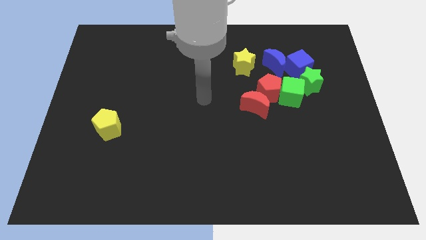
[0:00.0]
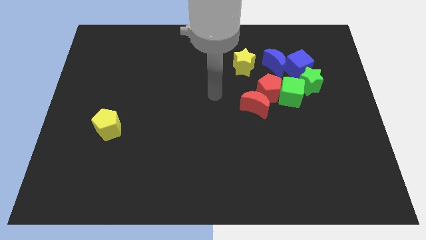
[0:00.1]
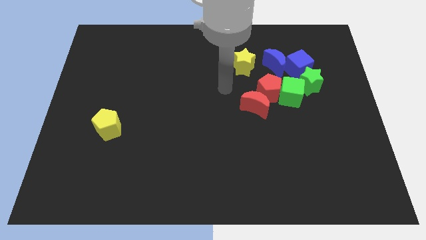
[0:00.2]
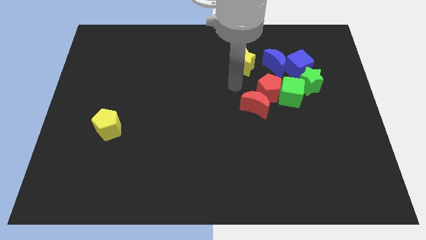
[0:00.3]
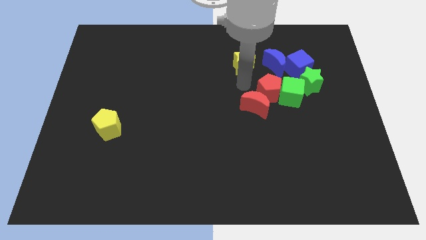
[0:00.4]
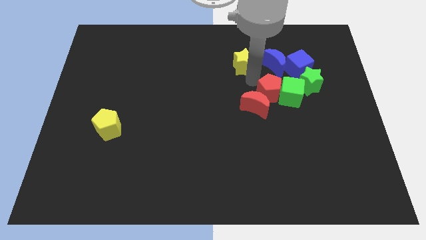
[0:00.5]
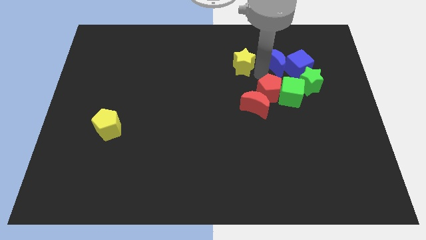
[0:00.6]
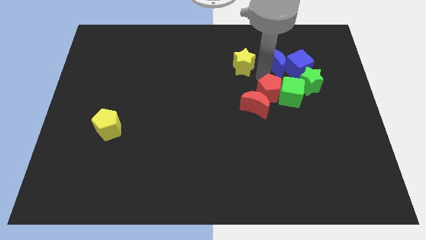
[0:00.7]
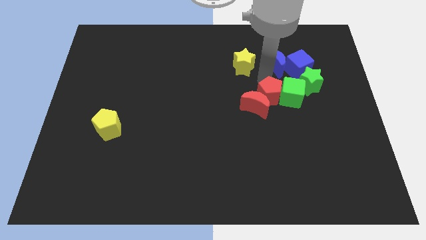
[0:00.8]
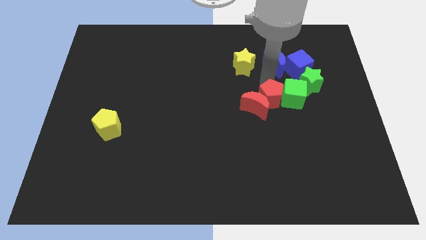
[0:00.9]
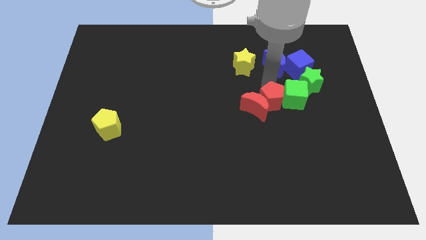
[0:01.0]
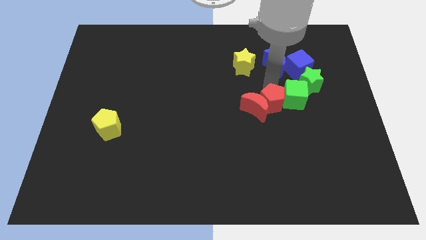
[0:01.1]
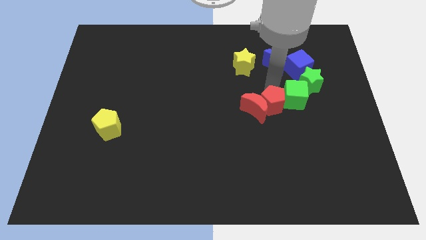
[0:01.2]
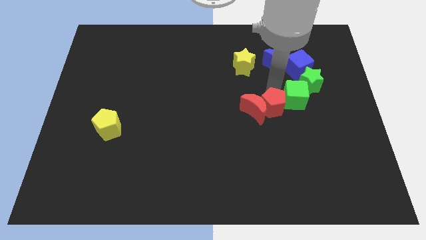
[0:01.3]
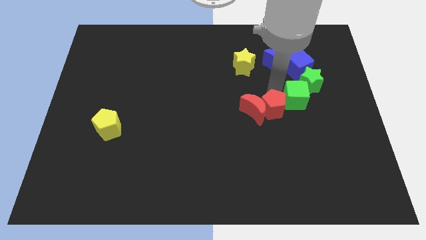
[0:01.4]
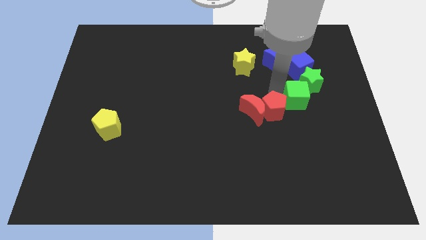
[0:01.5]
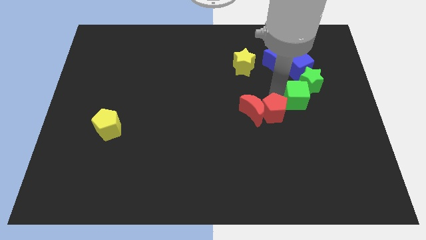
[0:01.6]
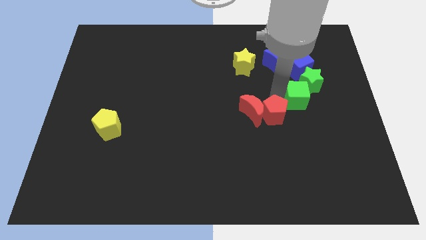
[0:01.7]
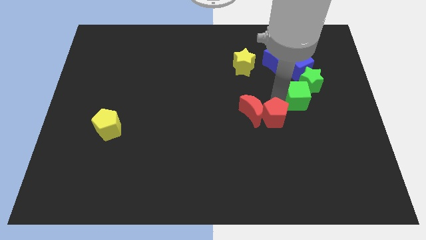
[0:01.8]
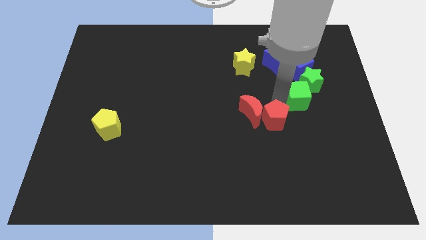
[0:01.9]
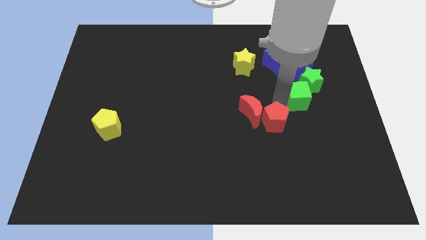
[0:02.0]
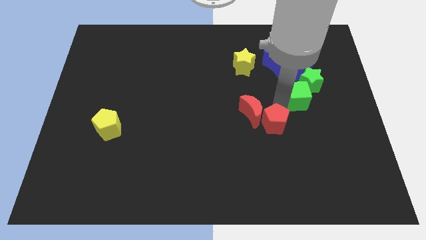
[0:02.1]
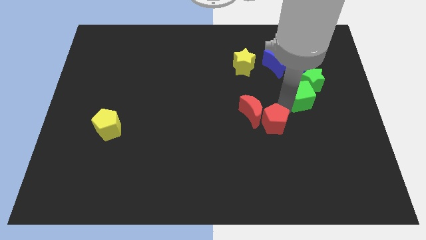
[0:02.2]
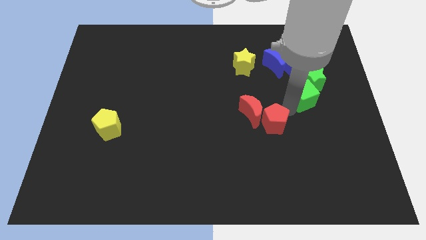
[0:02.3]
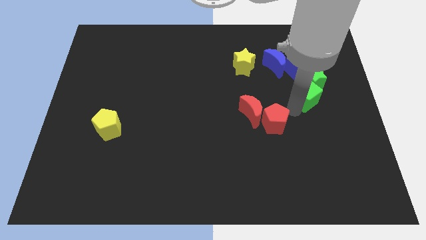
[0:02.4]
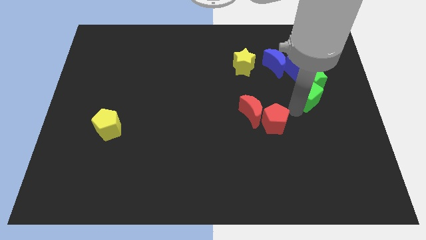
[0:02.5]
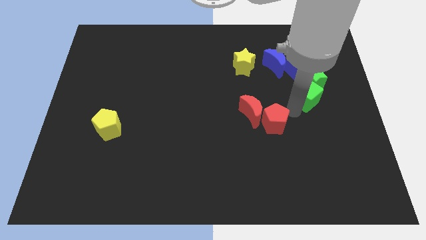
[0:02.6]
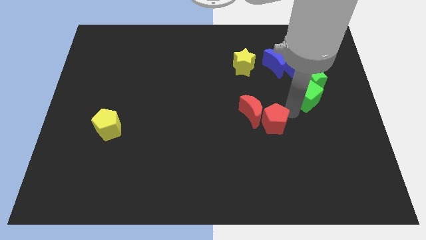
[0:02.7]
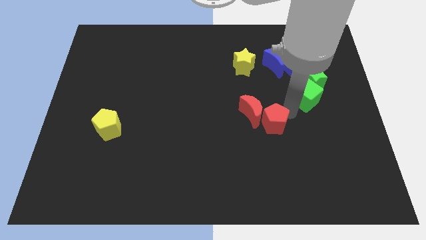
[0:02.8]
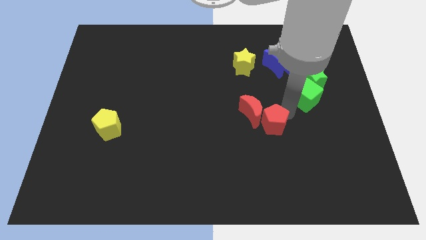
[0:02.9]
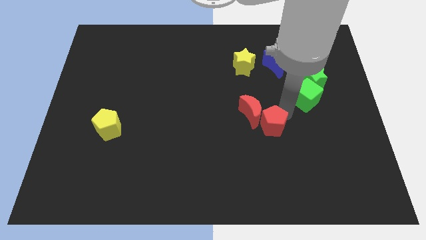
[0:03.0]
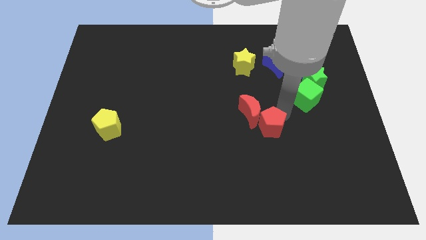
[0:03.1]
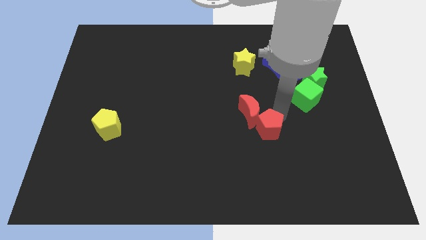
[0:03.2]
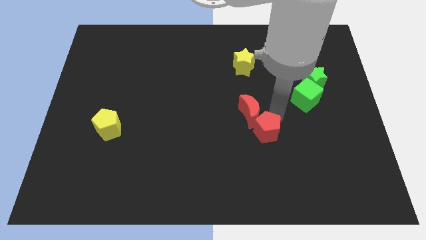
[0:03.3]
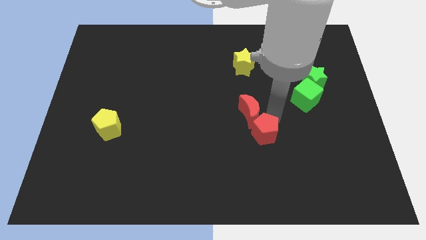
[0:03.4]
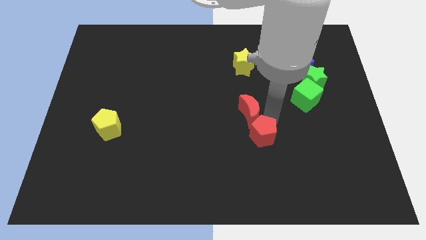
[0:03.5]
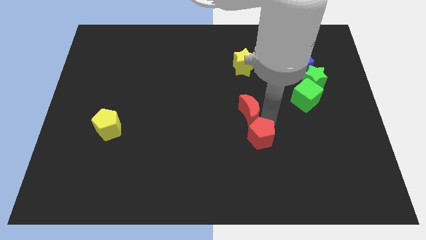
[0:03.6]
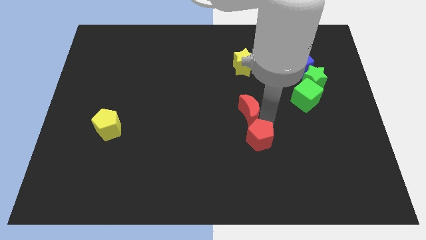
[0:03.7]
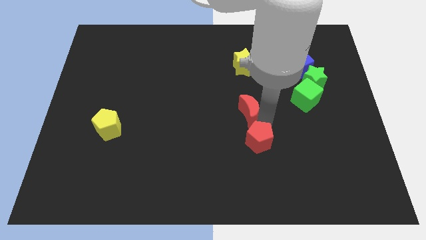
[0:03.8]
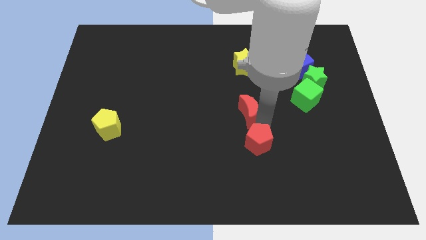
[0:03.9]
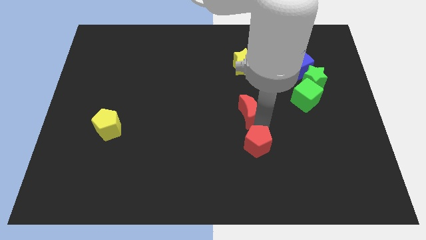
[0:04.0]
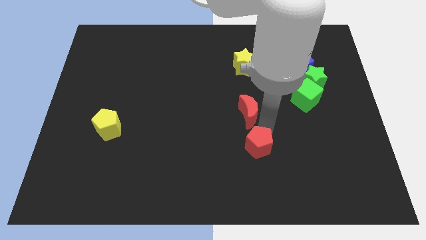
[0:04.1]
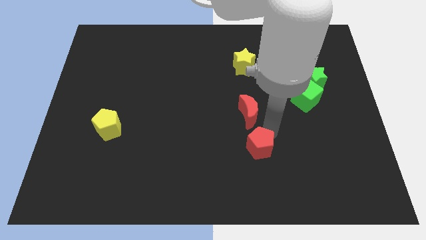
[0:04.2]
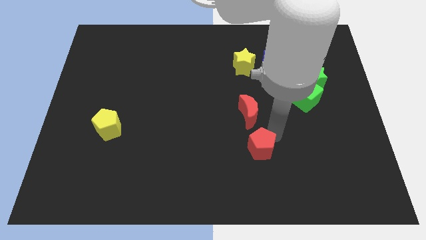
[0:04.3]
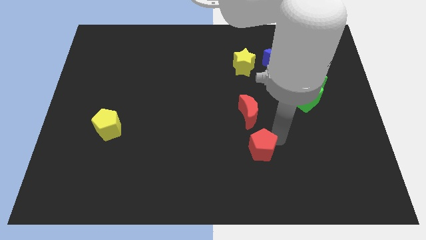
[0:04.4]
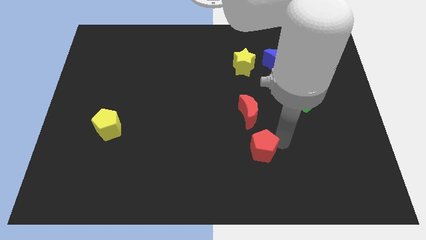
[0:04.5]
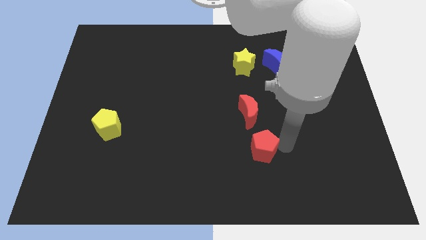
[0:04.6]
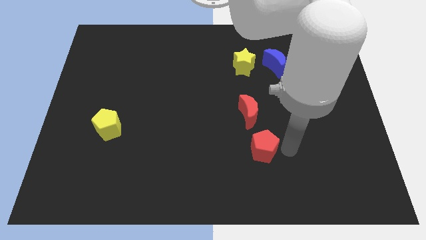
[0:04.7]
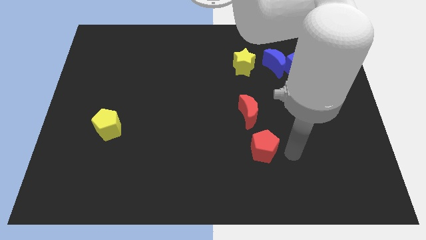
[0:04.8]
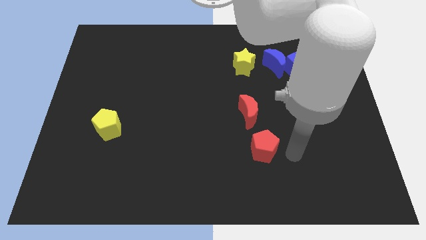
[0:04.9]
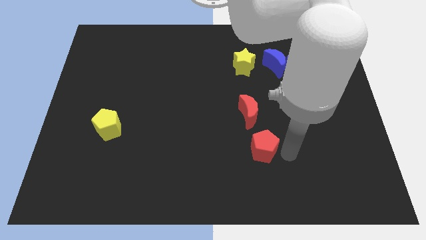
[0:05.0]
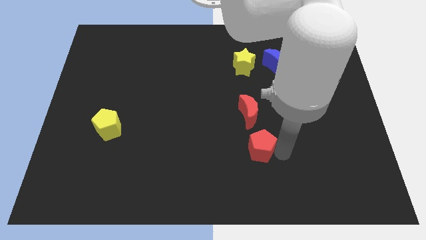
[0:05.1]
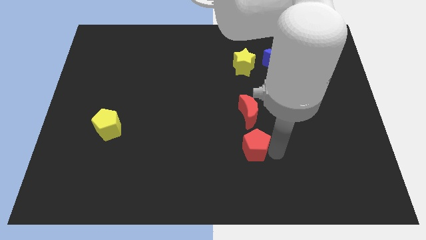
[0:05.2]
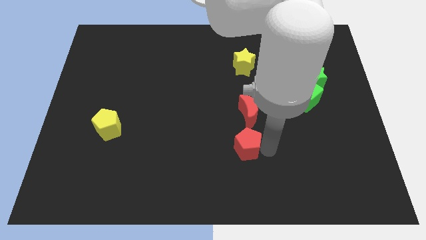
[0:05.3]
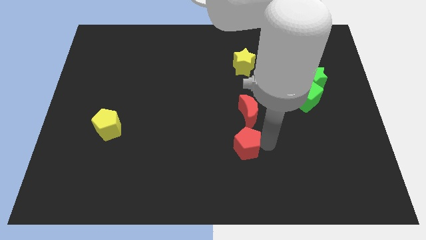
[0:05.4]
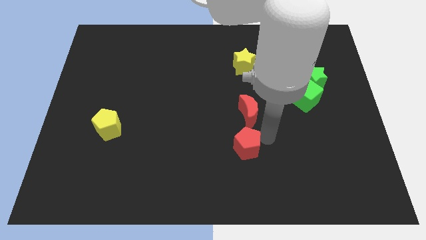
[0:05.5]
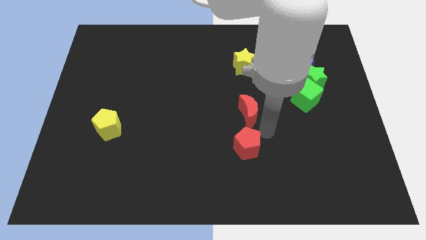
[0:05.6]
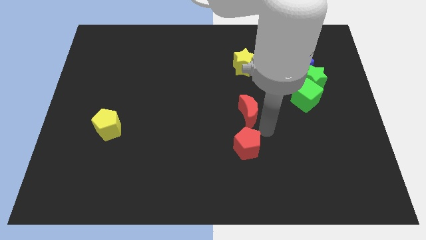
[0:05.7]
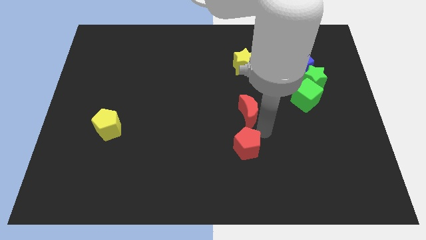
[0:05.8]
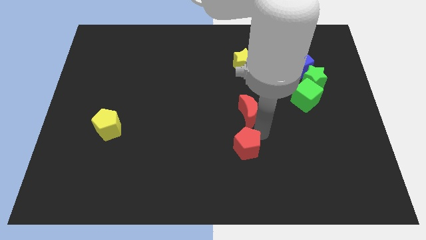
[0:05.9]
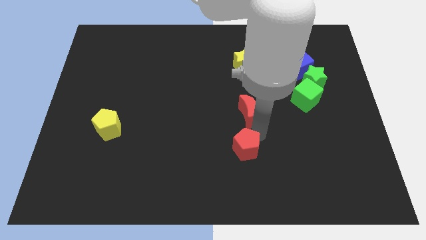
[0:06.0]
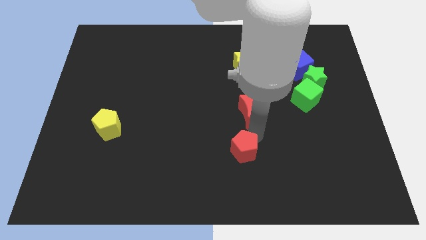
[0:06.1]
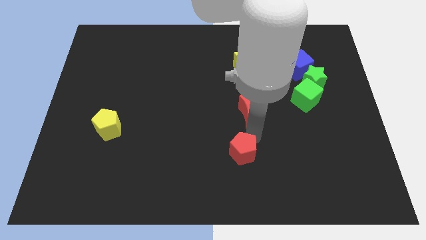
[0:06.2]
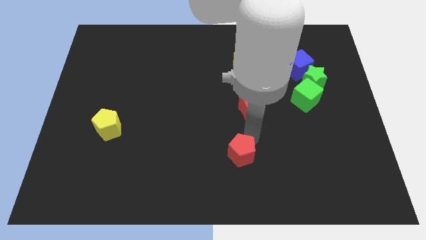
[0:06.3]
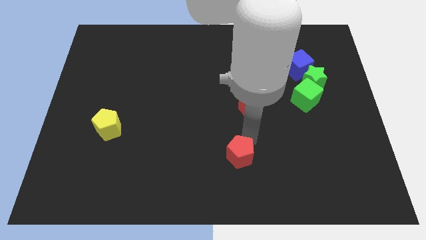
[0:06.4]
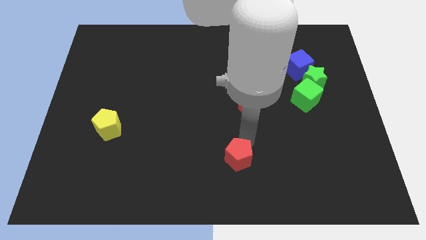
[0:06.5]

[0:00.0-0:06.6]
slide the red pentagon to the bottom

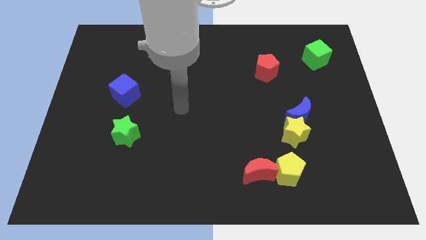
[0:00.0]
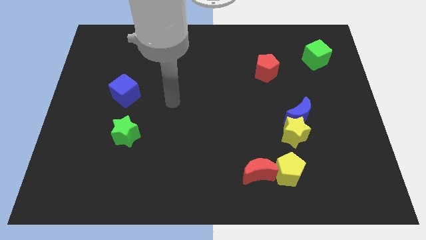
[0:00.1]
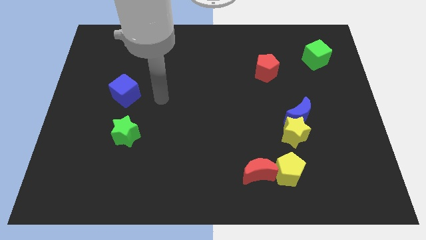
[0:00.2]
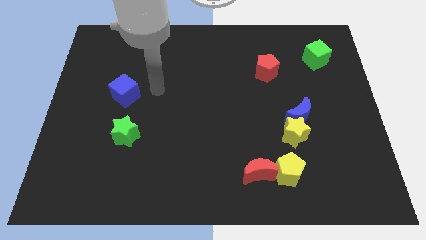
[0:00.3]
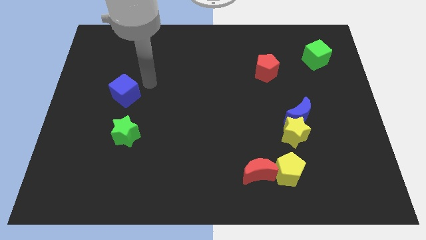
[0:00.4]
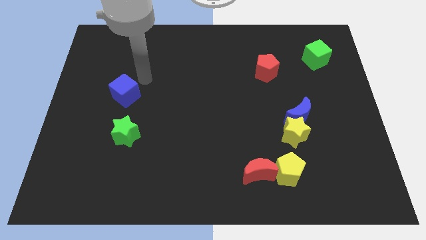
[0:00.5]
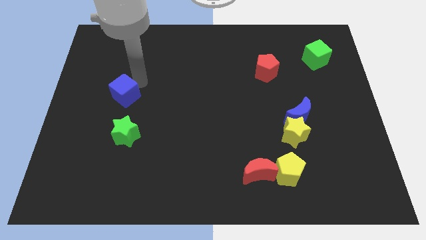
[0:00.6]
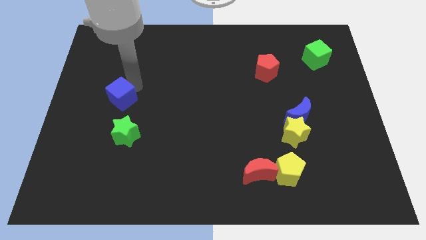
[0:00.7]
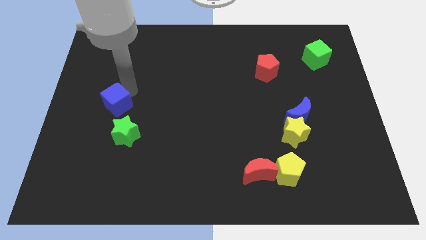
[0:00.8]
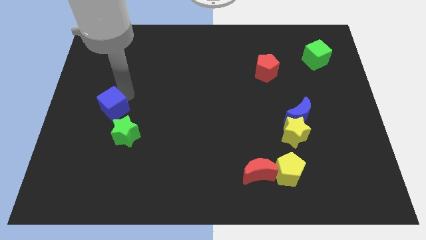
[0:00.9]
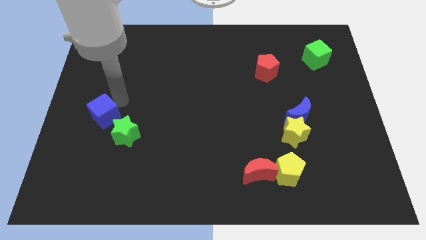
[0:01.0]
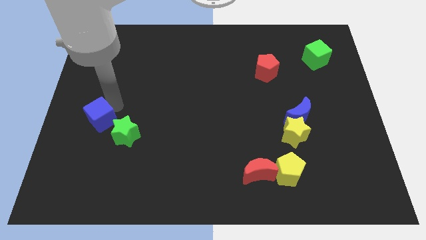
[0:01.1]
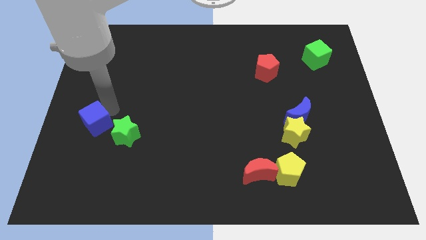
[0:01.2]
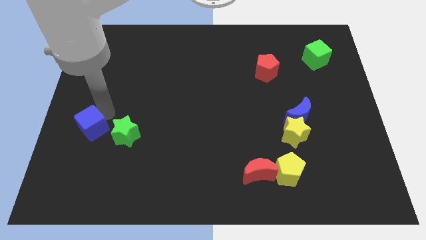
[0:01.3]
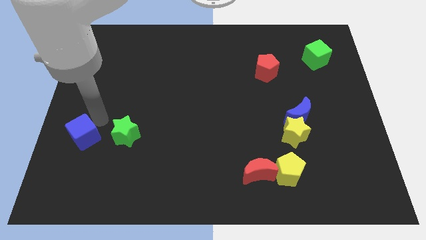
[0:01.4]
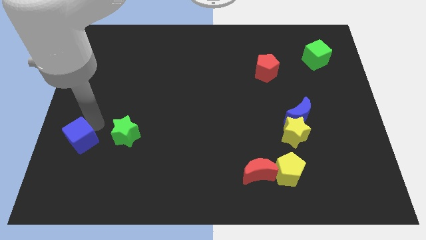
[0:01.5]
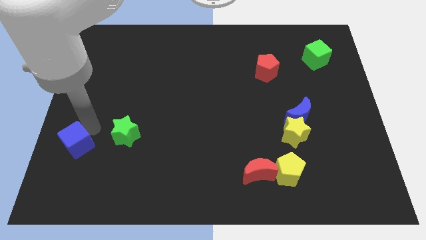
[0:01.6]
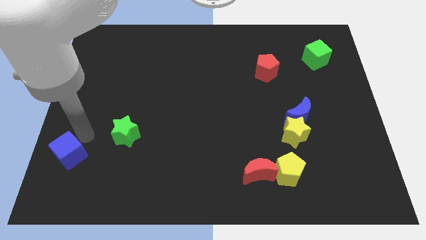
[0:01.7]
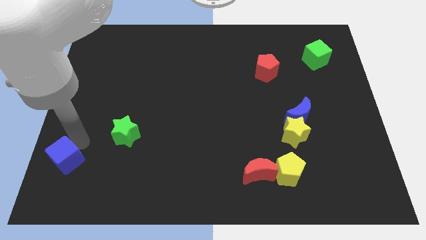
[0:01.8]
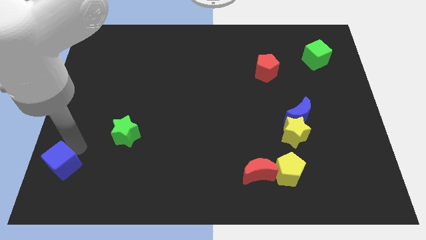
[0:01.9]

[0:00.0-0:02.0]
move the blue cube to the bottom left corner
